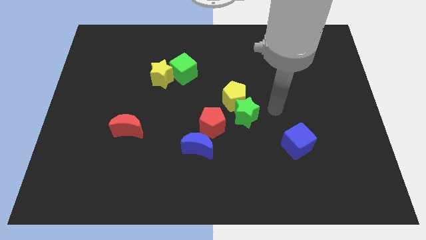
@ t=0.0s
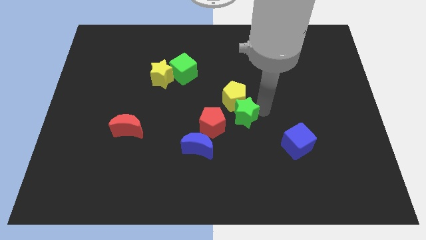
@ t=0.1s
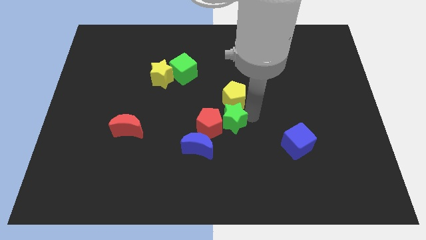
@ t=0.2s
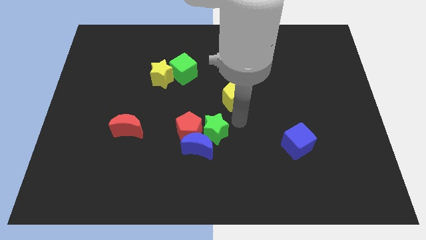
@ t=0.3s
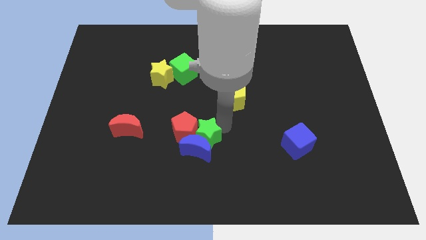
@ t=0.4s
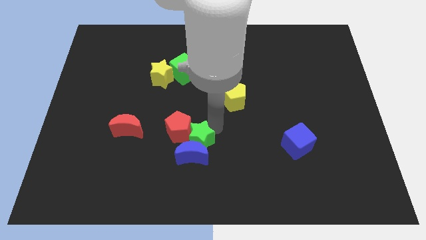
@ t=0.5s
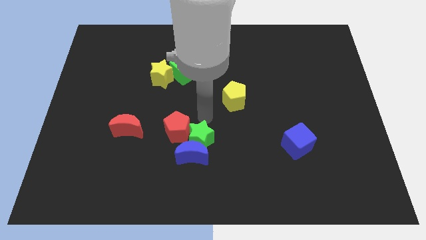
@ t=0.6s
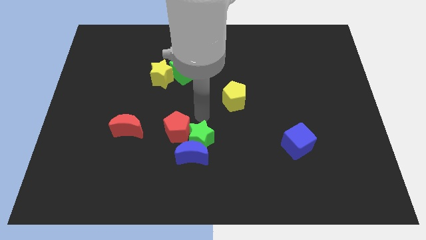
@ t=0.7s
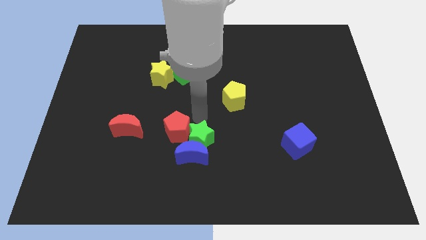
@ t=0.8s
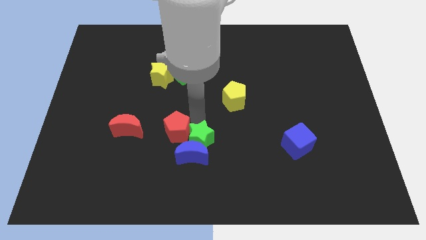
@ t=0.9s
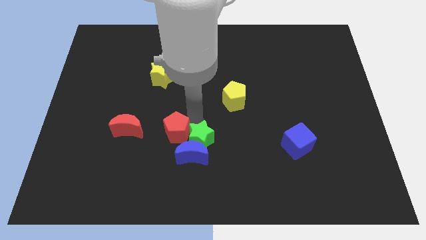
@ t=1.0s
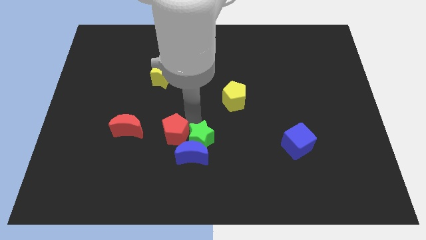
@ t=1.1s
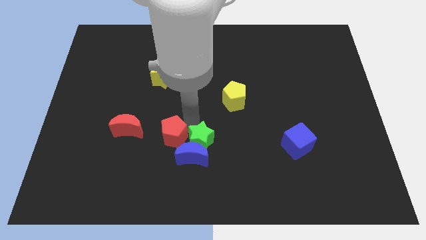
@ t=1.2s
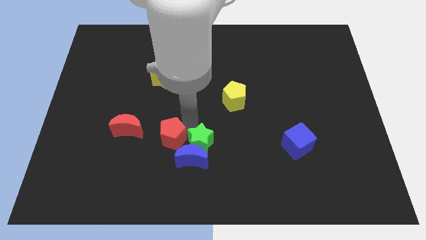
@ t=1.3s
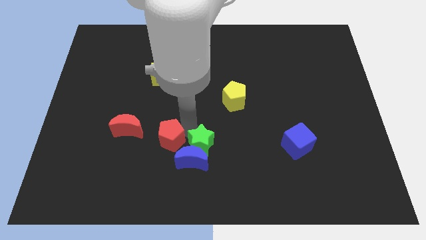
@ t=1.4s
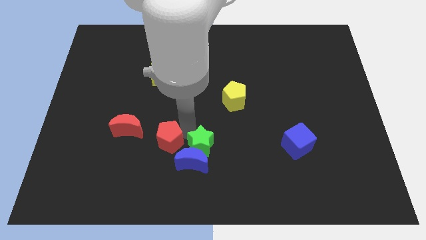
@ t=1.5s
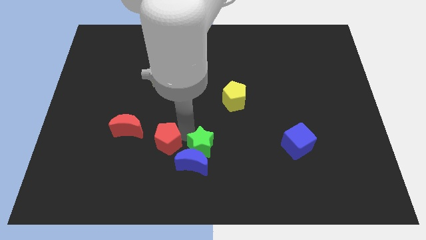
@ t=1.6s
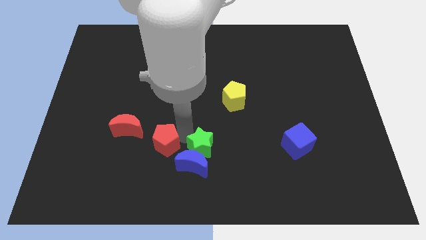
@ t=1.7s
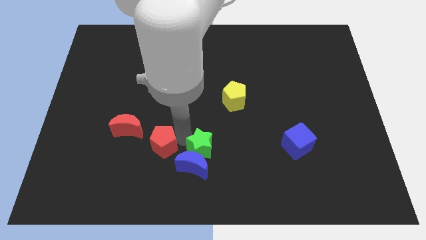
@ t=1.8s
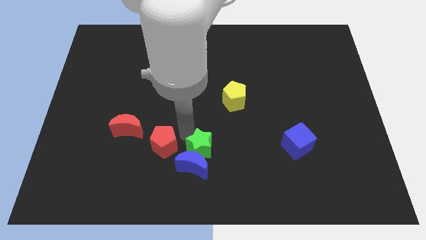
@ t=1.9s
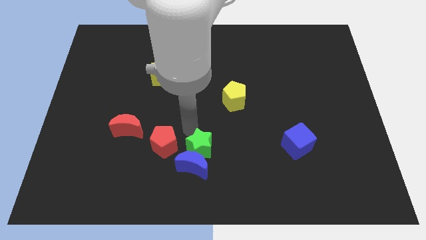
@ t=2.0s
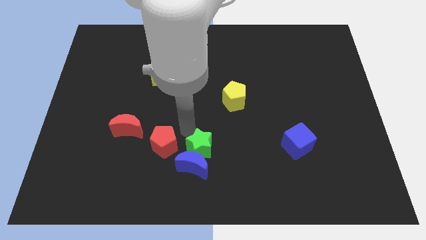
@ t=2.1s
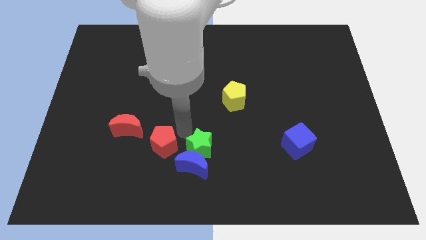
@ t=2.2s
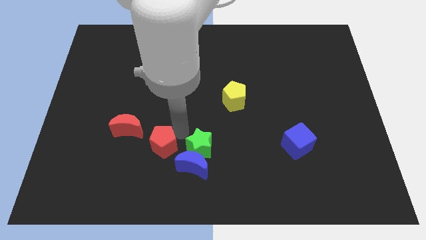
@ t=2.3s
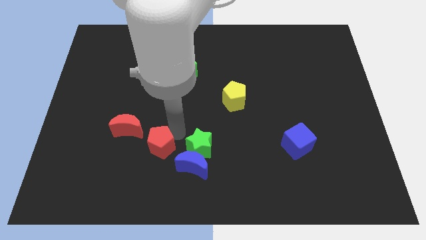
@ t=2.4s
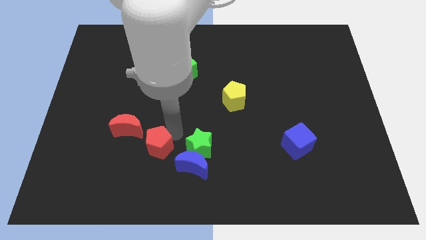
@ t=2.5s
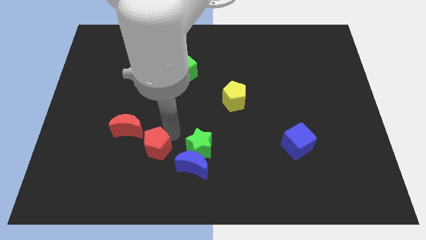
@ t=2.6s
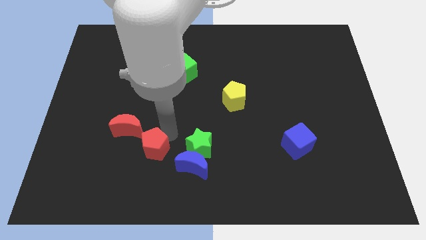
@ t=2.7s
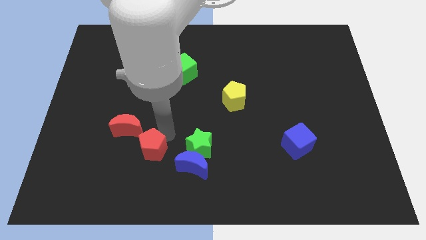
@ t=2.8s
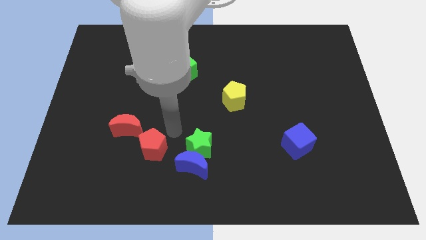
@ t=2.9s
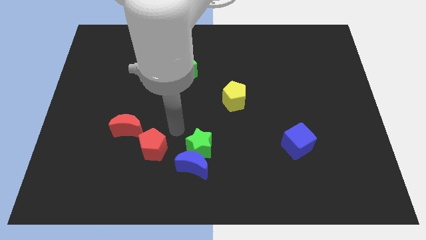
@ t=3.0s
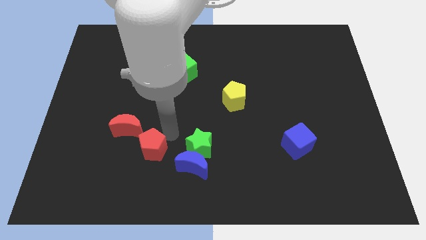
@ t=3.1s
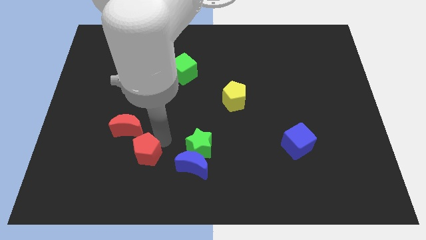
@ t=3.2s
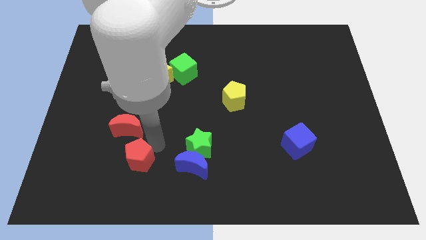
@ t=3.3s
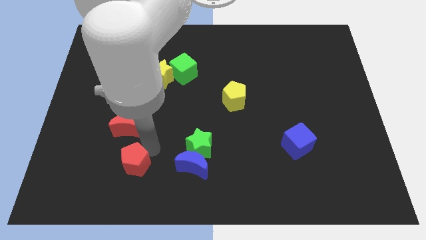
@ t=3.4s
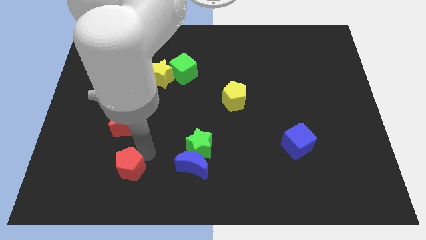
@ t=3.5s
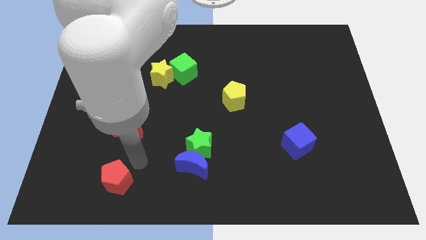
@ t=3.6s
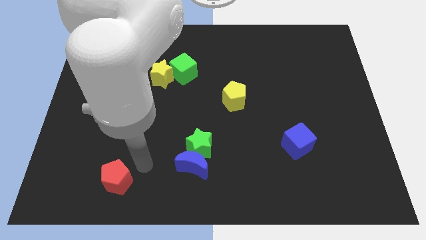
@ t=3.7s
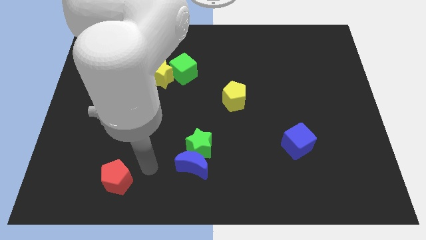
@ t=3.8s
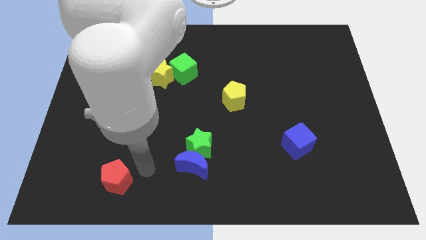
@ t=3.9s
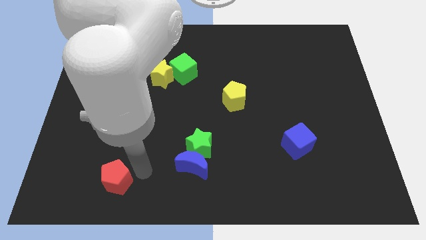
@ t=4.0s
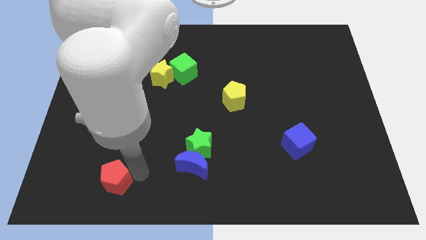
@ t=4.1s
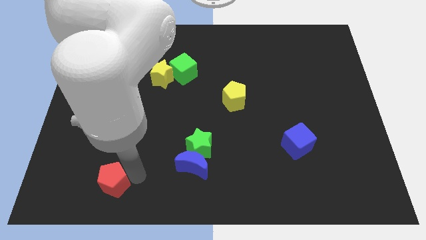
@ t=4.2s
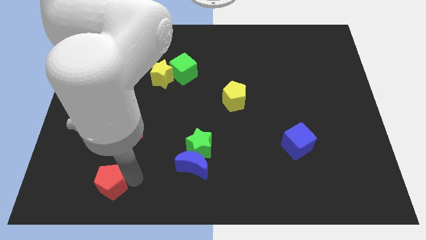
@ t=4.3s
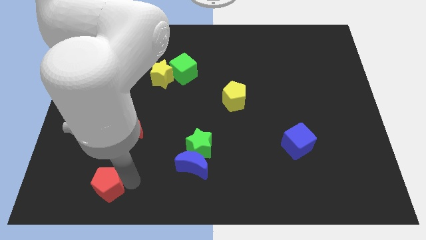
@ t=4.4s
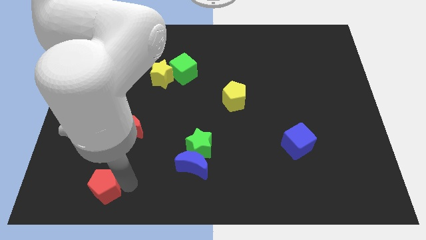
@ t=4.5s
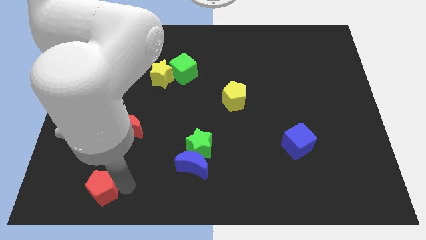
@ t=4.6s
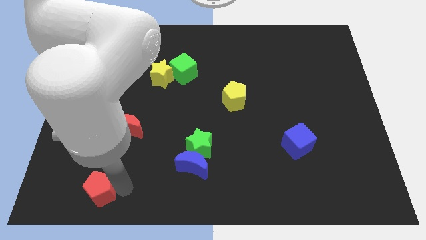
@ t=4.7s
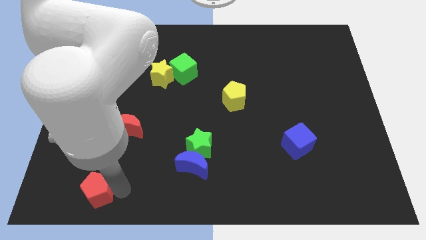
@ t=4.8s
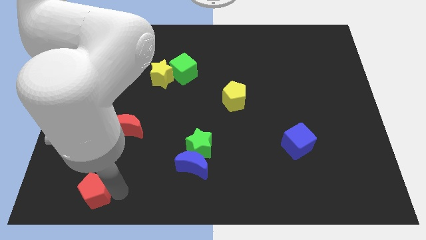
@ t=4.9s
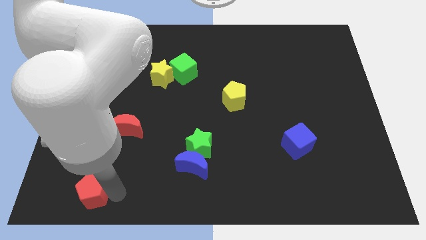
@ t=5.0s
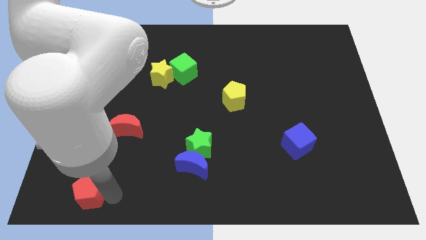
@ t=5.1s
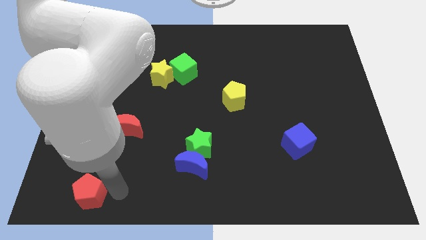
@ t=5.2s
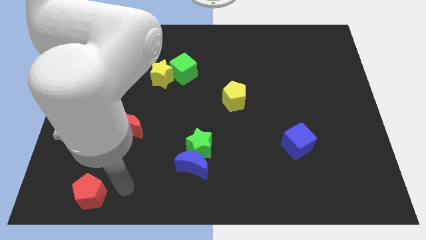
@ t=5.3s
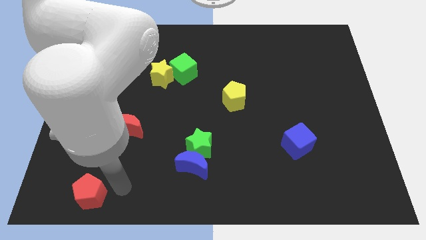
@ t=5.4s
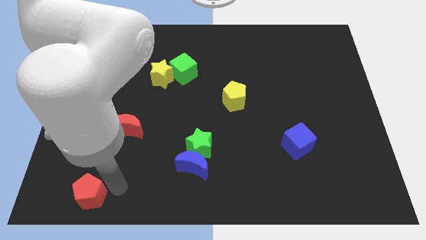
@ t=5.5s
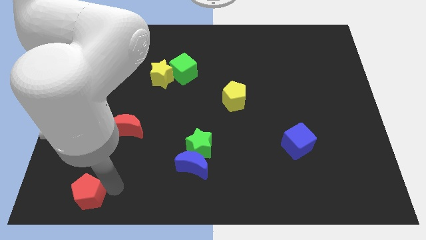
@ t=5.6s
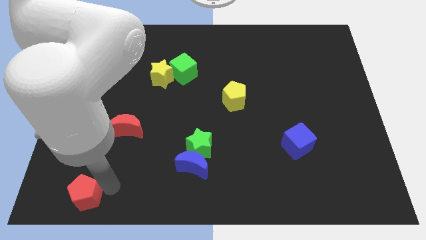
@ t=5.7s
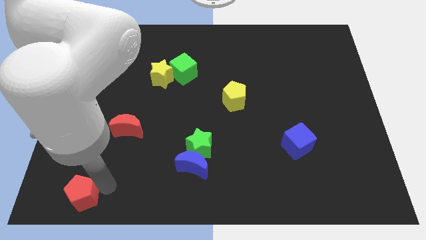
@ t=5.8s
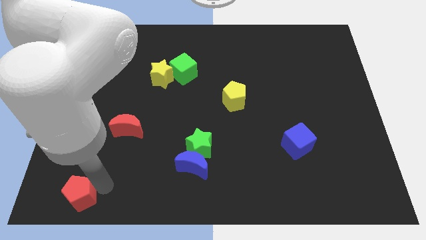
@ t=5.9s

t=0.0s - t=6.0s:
move the red pentagon to the bottom left of the board
